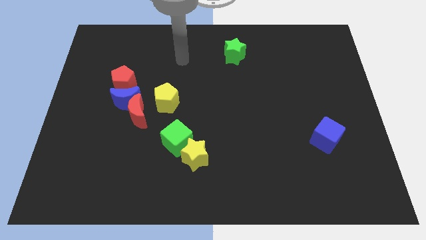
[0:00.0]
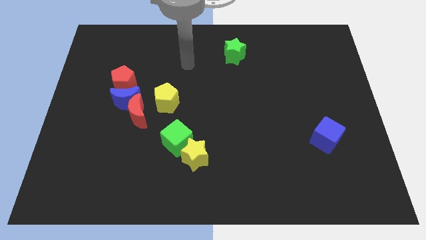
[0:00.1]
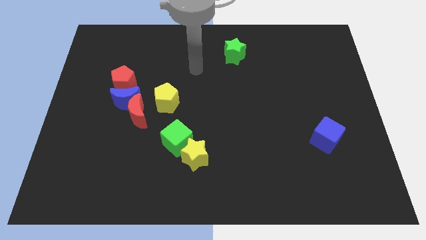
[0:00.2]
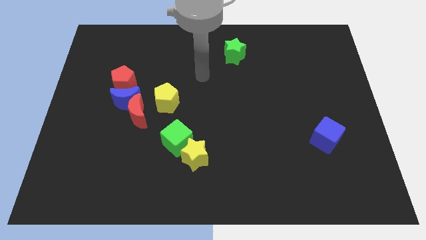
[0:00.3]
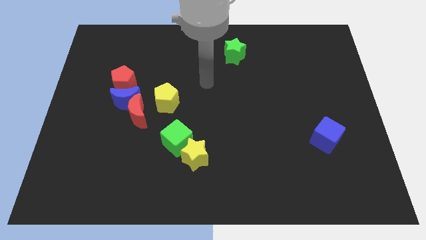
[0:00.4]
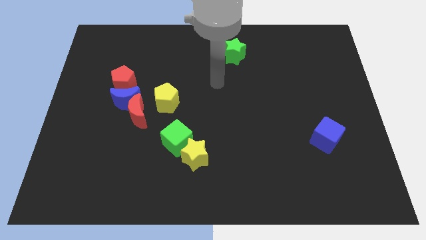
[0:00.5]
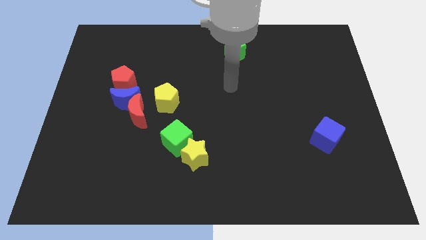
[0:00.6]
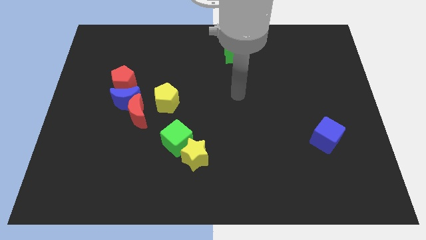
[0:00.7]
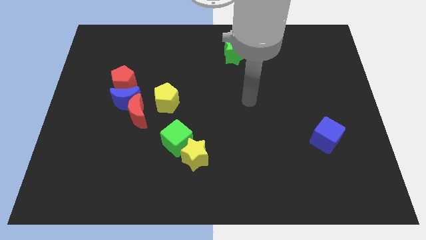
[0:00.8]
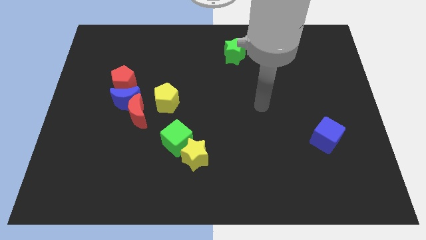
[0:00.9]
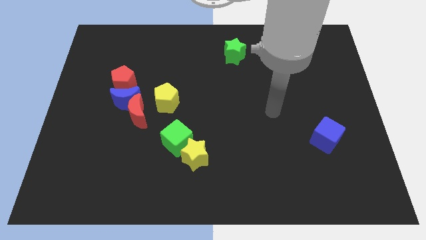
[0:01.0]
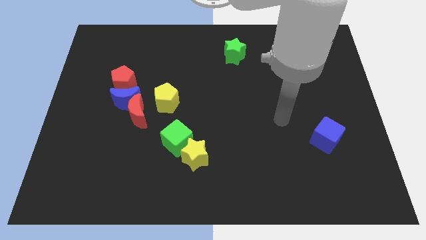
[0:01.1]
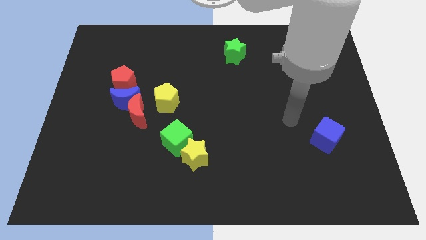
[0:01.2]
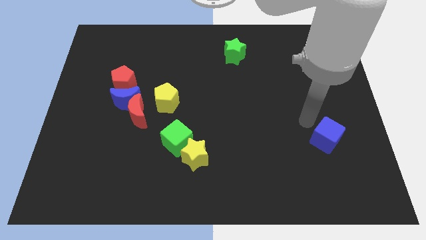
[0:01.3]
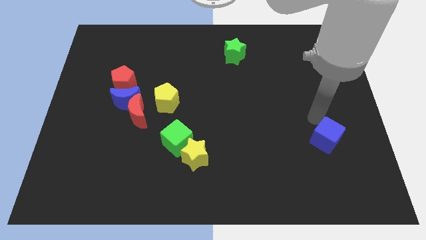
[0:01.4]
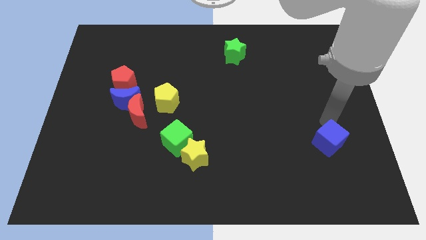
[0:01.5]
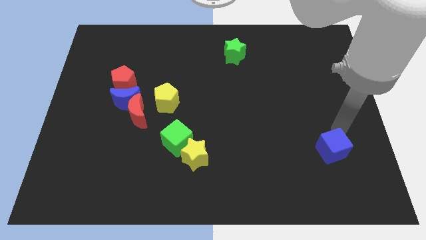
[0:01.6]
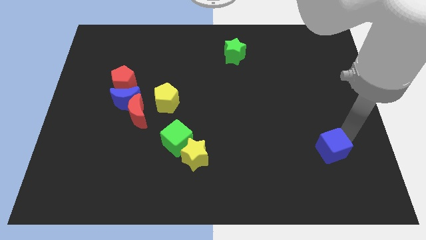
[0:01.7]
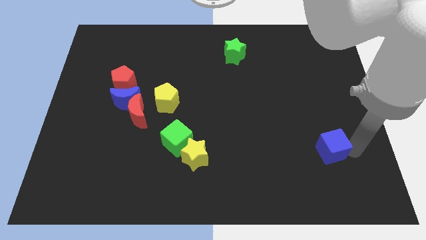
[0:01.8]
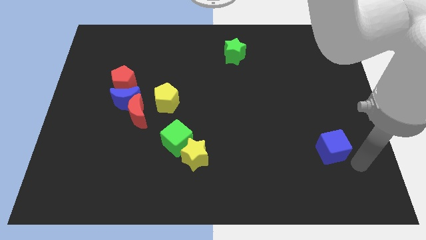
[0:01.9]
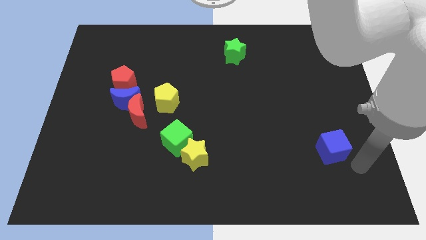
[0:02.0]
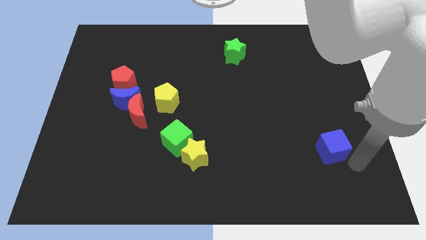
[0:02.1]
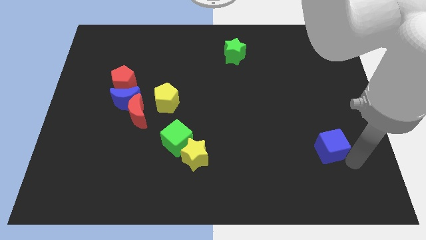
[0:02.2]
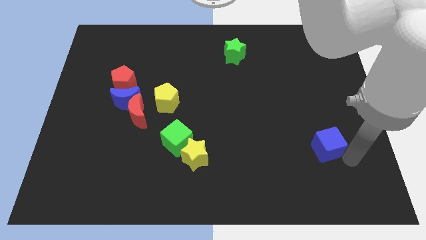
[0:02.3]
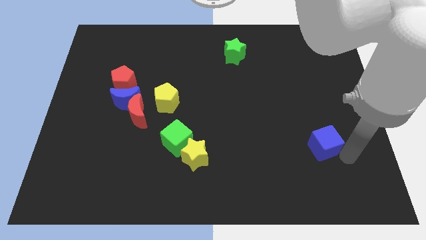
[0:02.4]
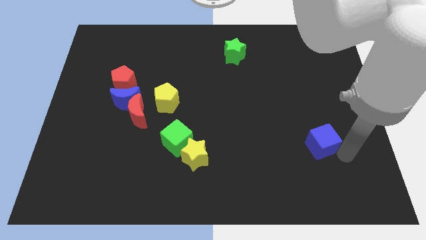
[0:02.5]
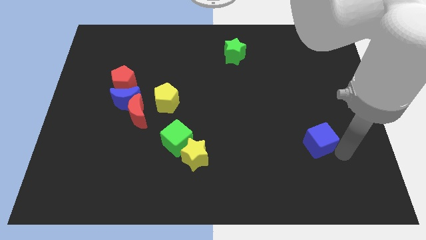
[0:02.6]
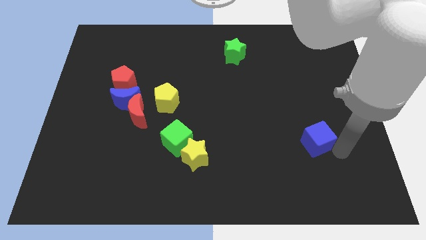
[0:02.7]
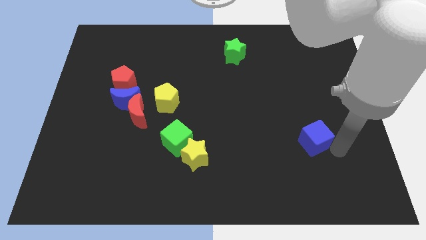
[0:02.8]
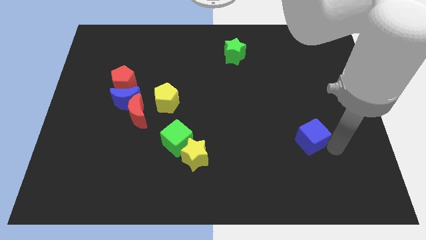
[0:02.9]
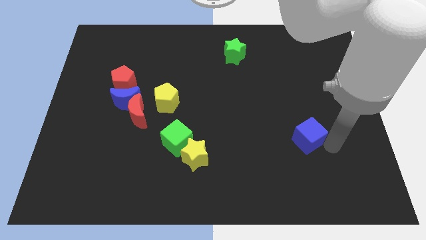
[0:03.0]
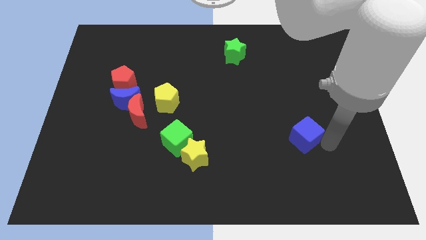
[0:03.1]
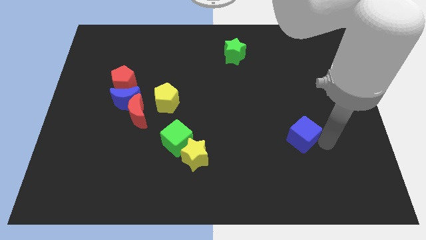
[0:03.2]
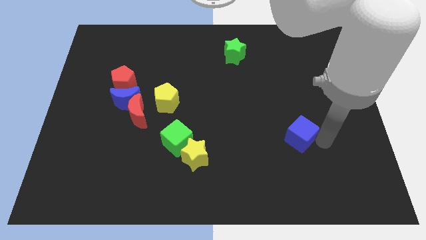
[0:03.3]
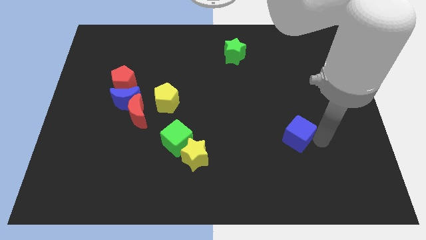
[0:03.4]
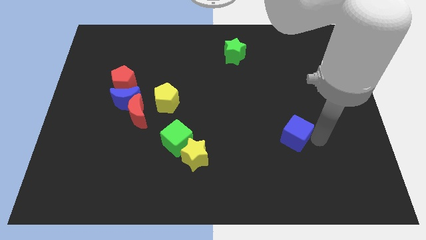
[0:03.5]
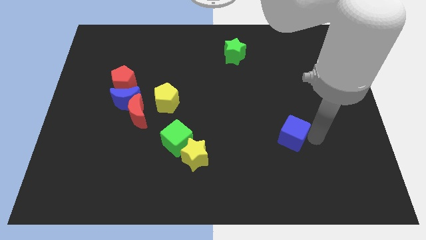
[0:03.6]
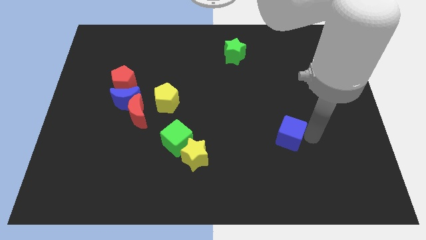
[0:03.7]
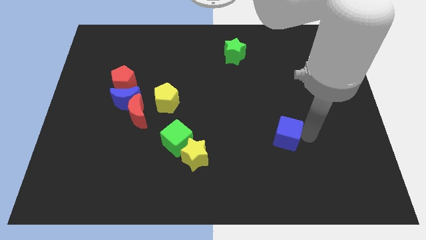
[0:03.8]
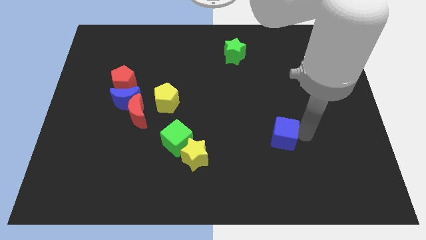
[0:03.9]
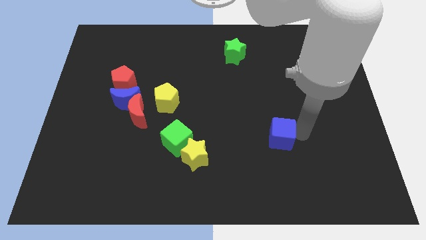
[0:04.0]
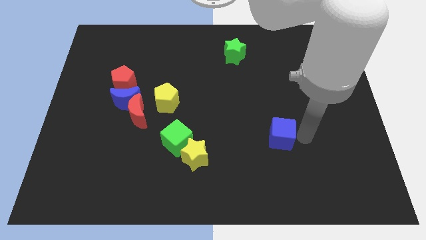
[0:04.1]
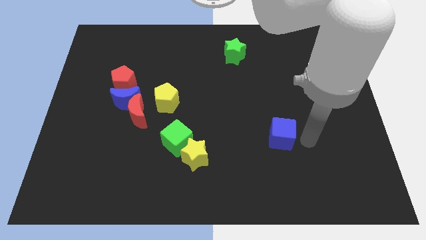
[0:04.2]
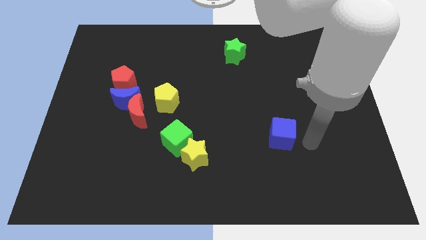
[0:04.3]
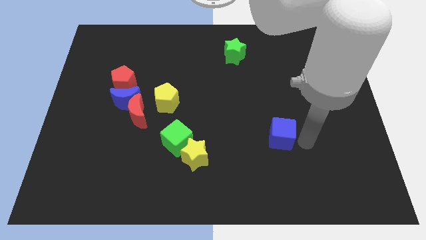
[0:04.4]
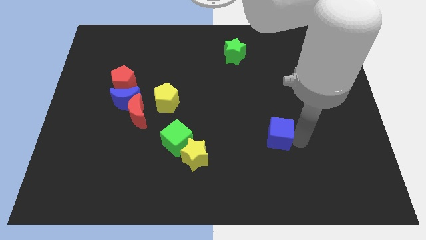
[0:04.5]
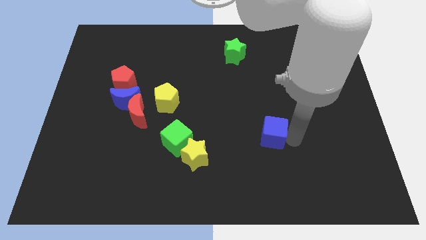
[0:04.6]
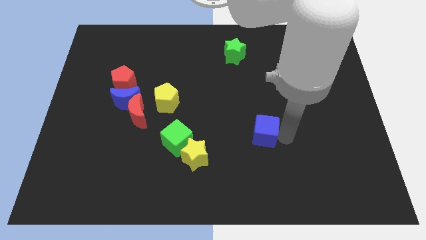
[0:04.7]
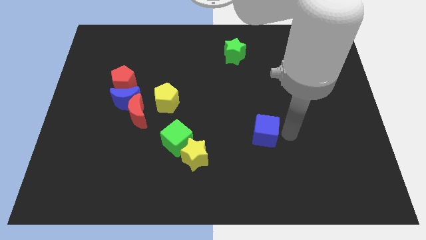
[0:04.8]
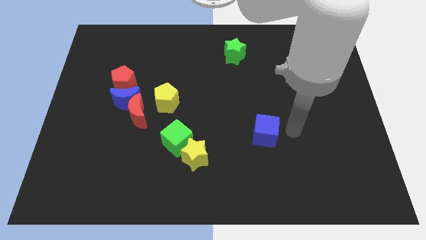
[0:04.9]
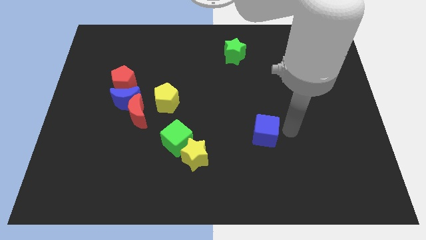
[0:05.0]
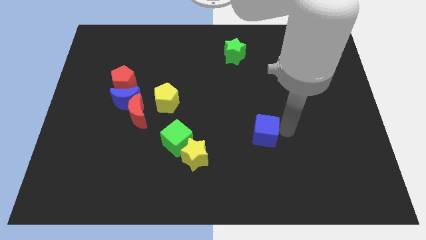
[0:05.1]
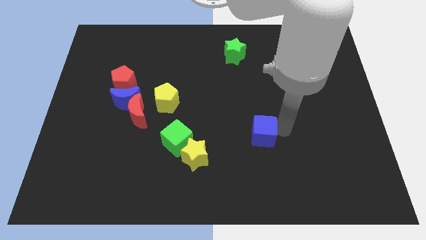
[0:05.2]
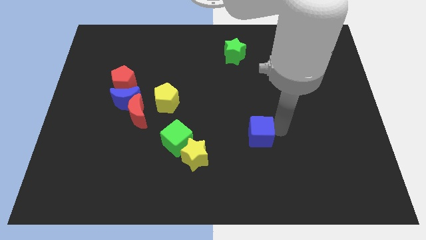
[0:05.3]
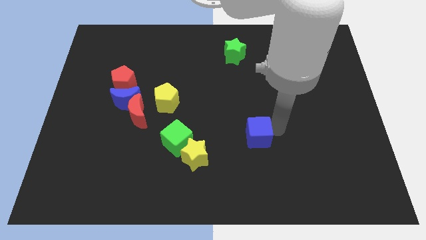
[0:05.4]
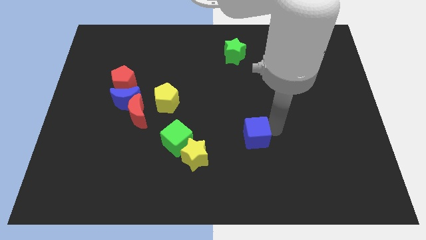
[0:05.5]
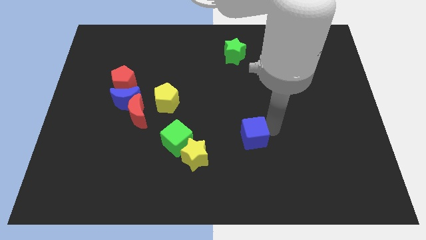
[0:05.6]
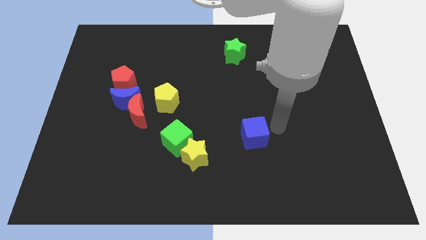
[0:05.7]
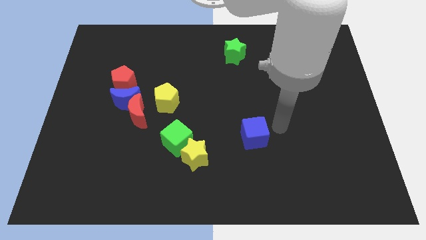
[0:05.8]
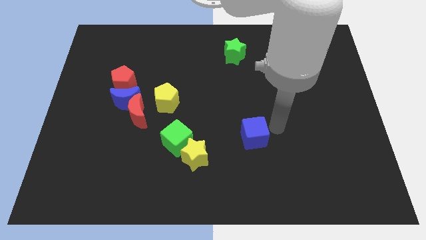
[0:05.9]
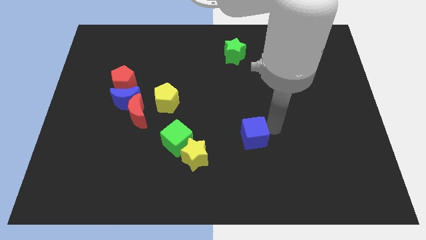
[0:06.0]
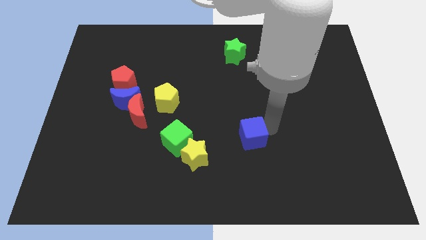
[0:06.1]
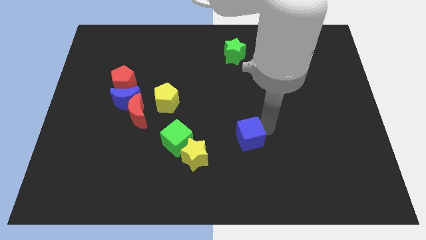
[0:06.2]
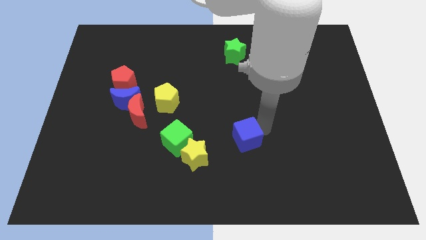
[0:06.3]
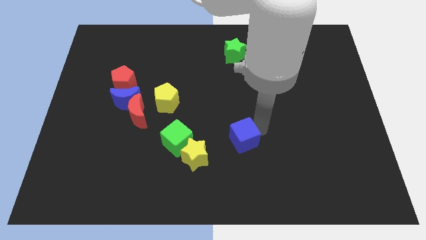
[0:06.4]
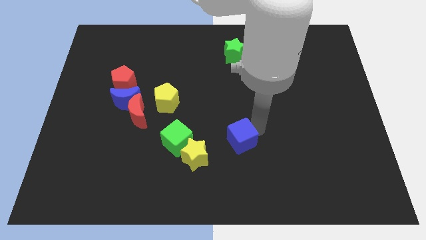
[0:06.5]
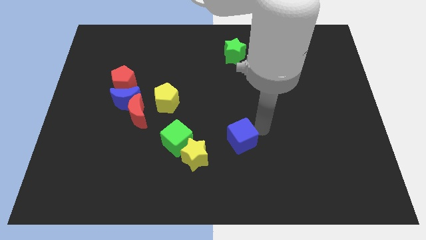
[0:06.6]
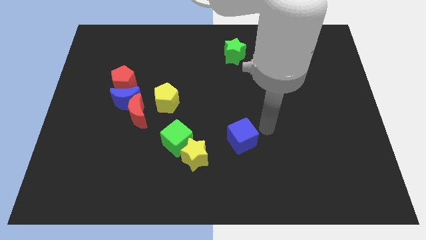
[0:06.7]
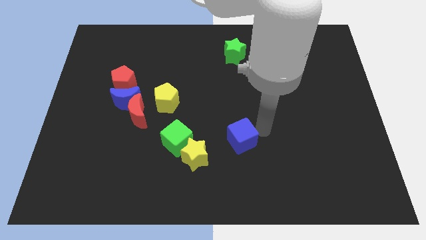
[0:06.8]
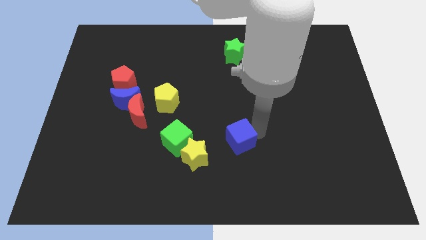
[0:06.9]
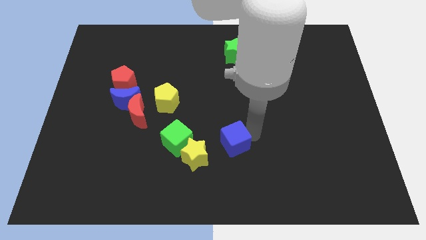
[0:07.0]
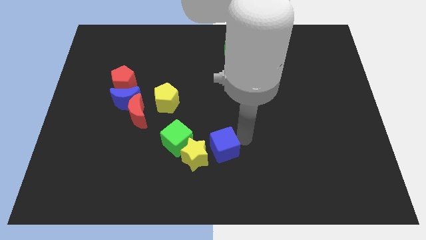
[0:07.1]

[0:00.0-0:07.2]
slide the blue cube close to the yellow star
